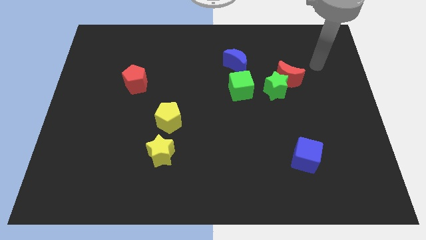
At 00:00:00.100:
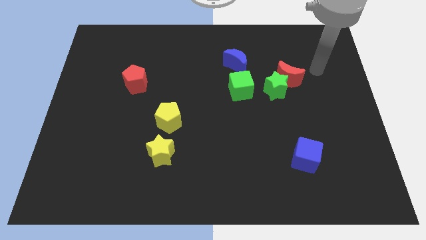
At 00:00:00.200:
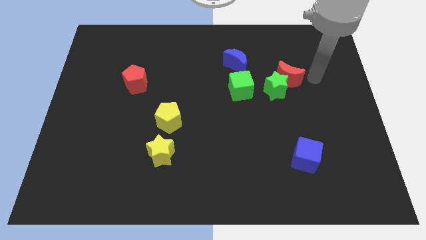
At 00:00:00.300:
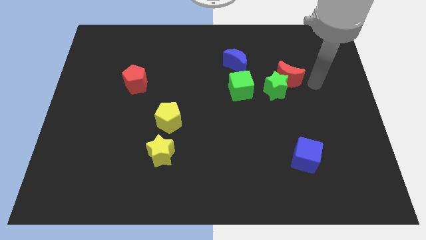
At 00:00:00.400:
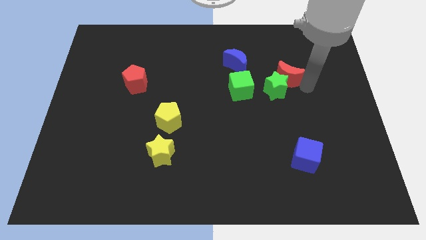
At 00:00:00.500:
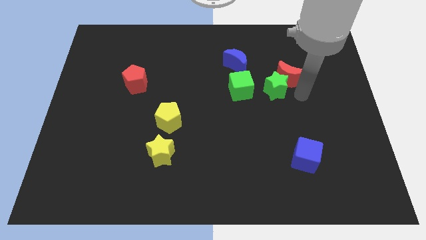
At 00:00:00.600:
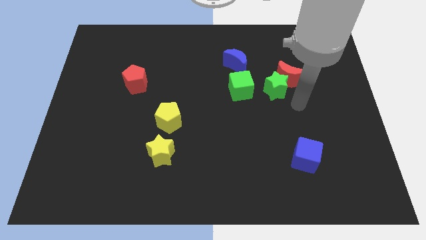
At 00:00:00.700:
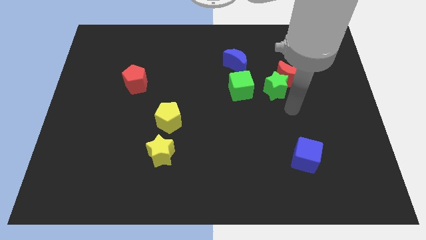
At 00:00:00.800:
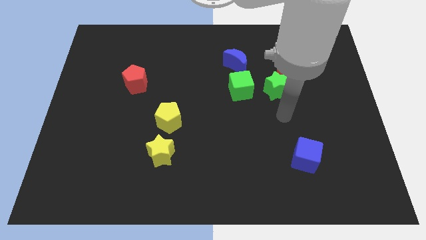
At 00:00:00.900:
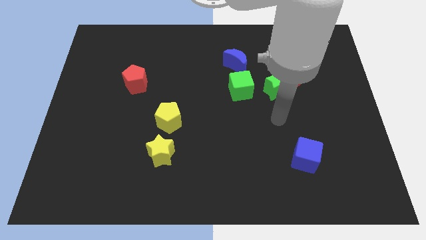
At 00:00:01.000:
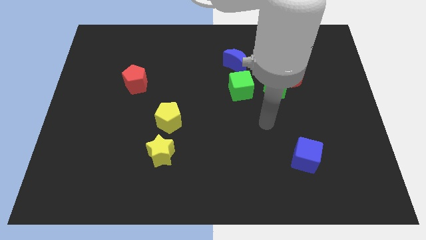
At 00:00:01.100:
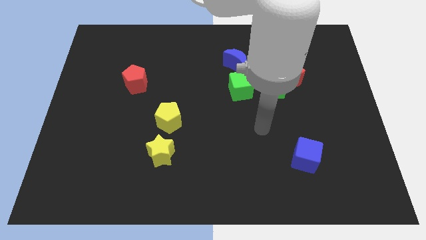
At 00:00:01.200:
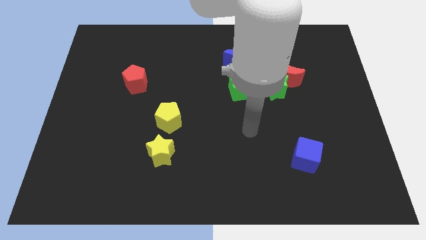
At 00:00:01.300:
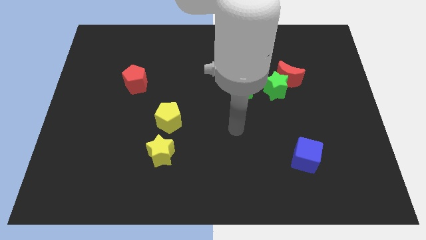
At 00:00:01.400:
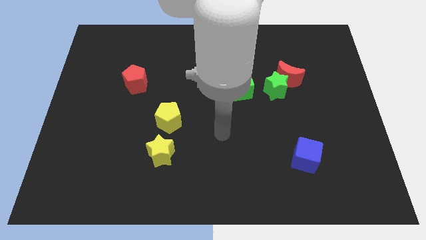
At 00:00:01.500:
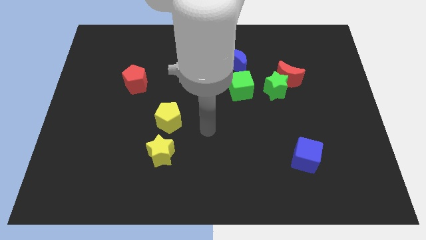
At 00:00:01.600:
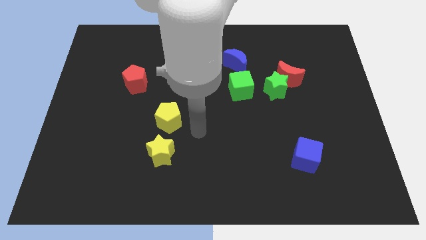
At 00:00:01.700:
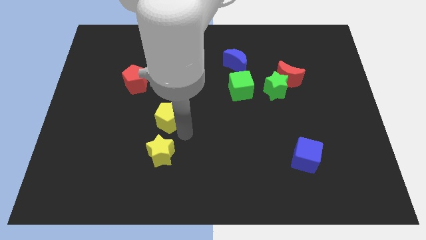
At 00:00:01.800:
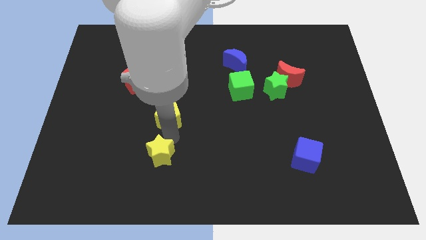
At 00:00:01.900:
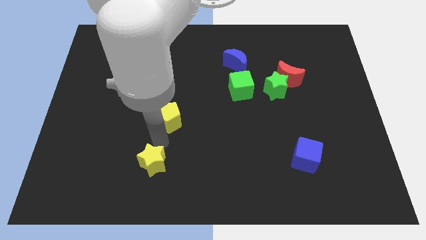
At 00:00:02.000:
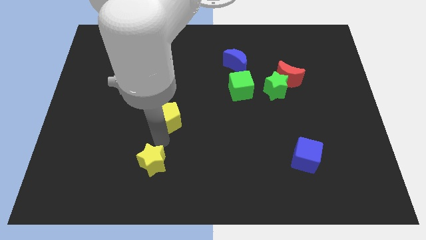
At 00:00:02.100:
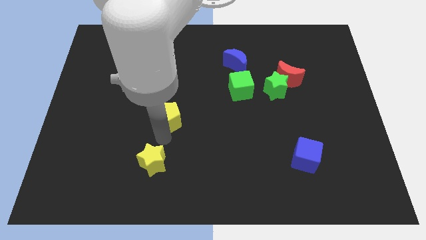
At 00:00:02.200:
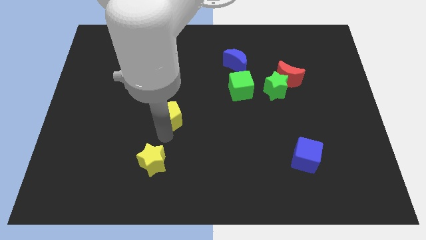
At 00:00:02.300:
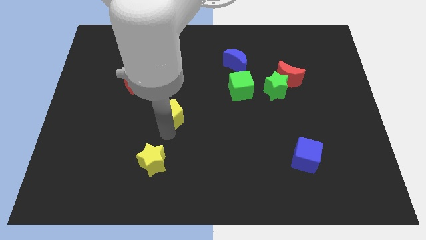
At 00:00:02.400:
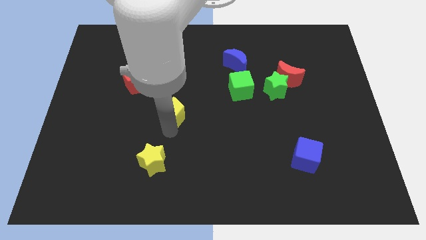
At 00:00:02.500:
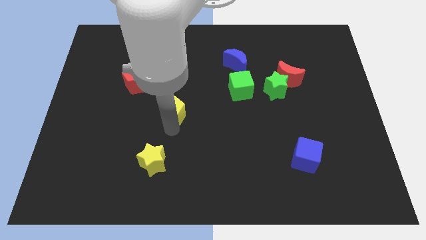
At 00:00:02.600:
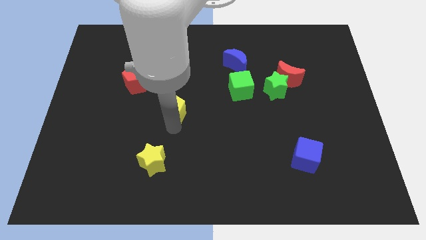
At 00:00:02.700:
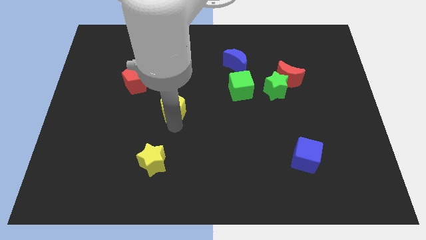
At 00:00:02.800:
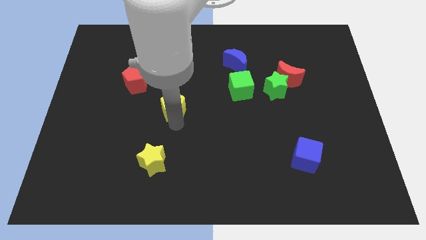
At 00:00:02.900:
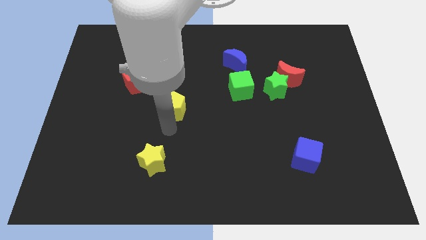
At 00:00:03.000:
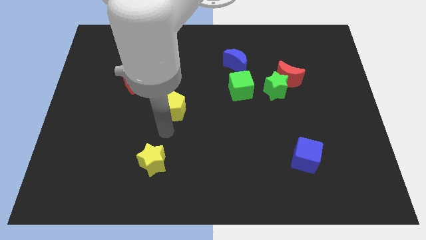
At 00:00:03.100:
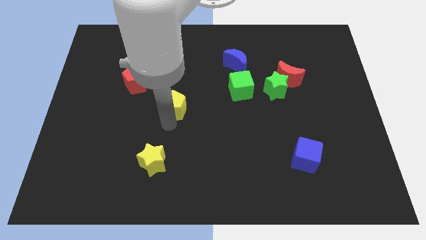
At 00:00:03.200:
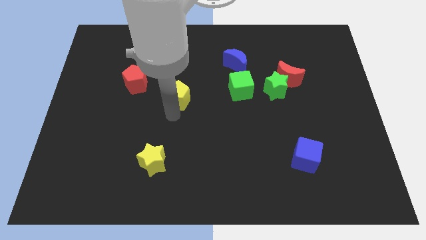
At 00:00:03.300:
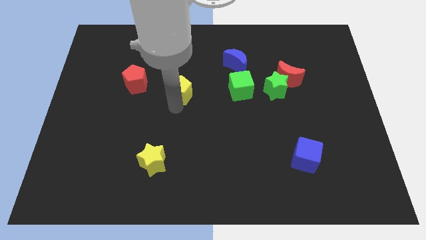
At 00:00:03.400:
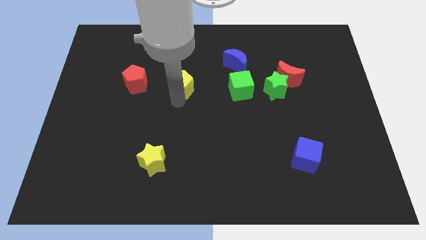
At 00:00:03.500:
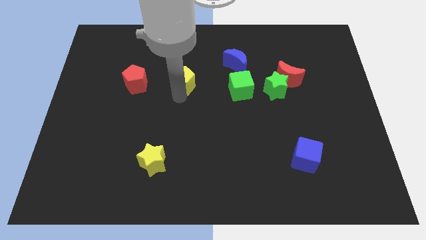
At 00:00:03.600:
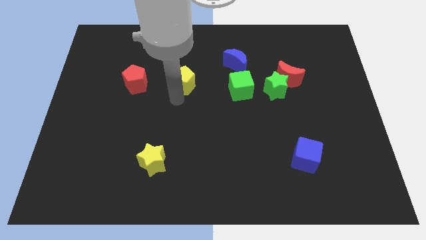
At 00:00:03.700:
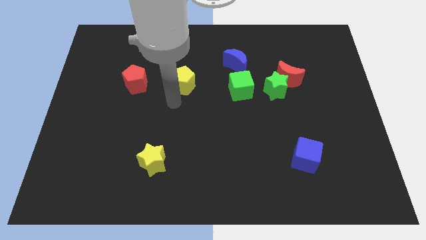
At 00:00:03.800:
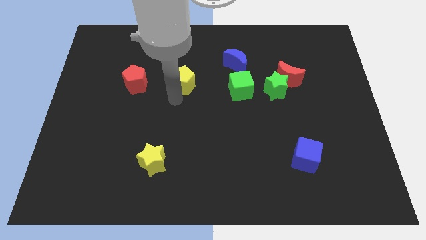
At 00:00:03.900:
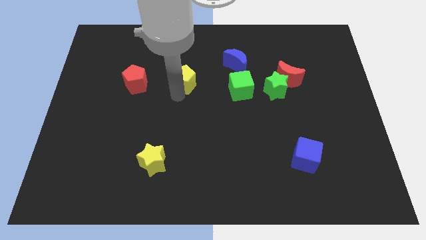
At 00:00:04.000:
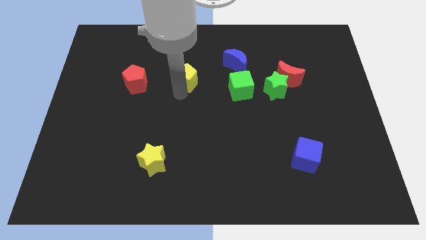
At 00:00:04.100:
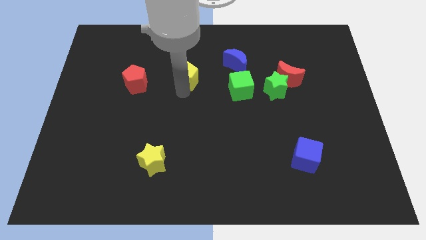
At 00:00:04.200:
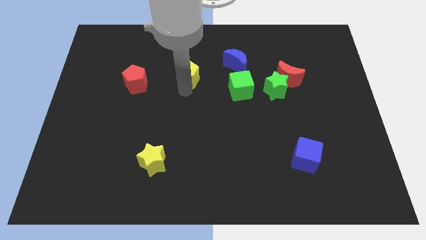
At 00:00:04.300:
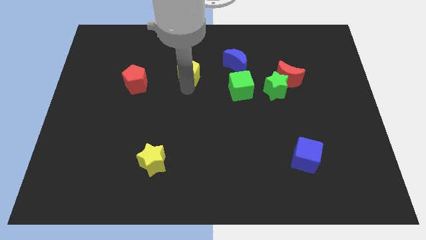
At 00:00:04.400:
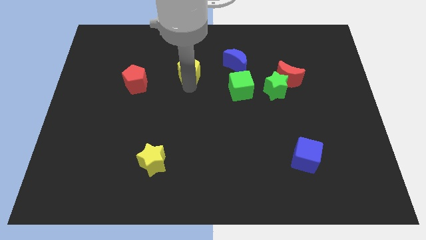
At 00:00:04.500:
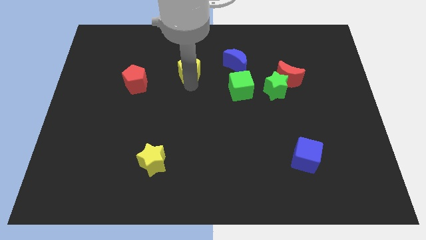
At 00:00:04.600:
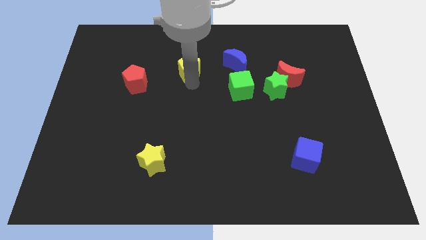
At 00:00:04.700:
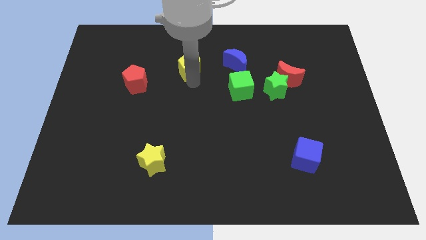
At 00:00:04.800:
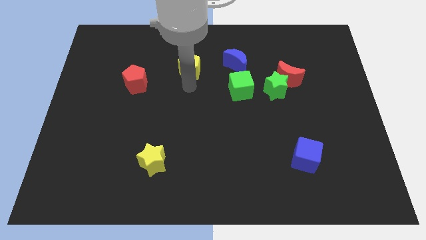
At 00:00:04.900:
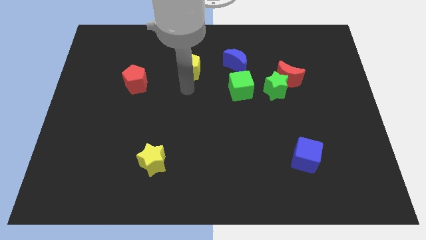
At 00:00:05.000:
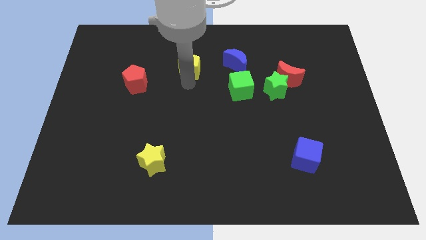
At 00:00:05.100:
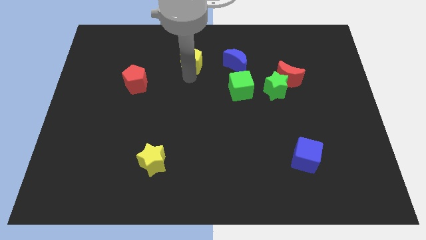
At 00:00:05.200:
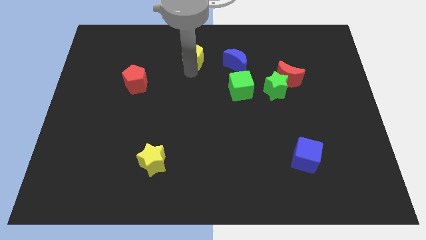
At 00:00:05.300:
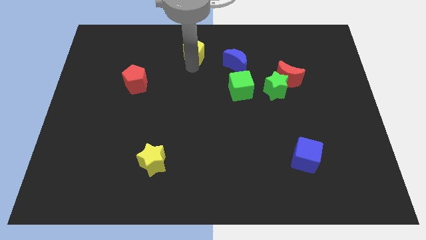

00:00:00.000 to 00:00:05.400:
put the yellow pentagon to the towards your base

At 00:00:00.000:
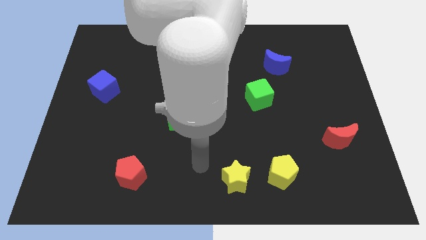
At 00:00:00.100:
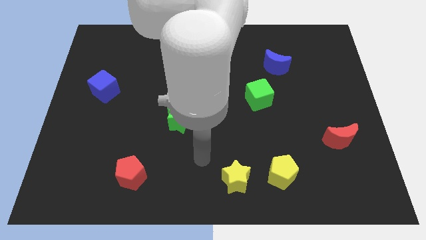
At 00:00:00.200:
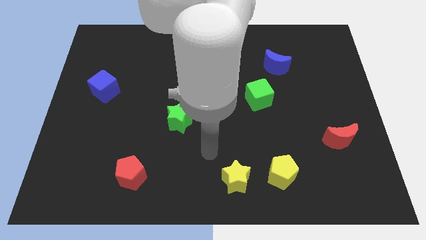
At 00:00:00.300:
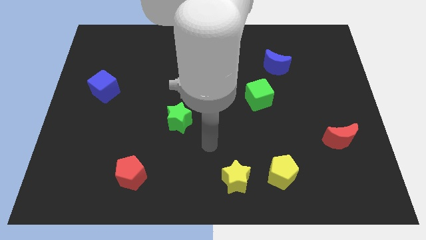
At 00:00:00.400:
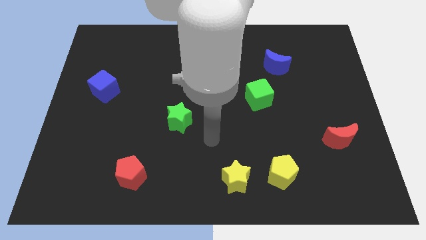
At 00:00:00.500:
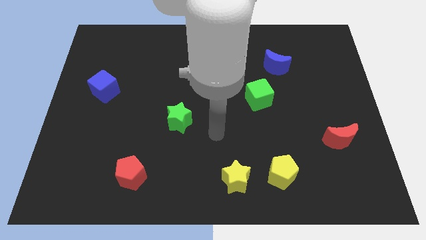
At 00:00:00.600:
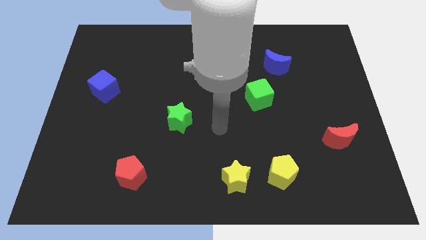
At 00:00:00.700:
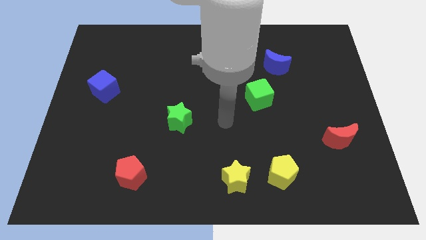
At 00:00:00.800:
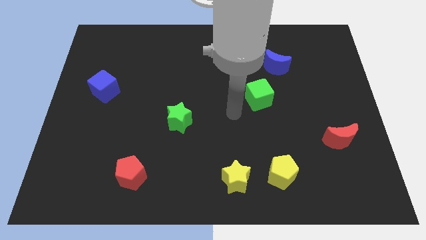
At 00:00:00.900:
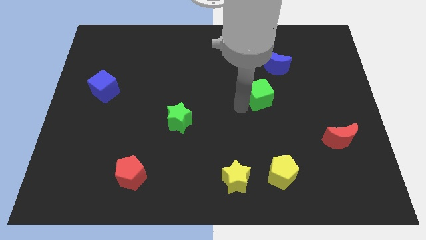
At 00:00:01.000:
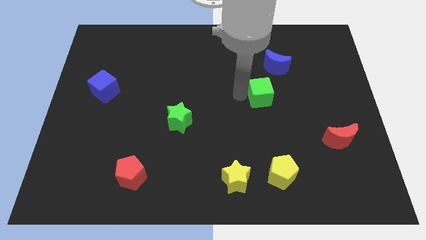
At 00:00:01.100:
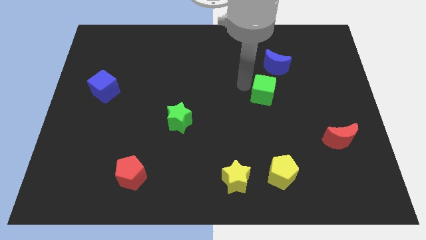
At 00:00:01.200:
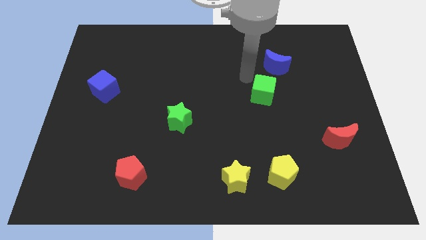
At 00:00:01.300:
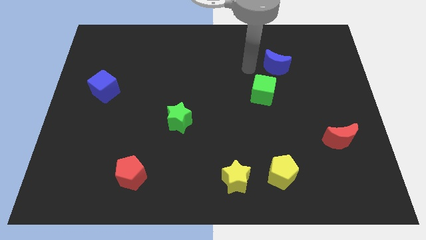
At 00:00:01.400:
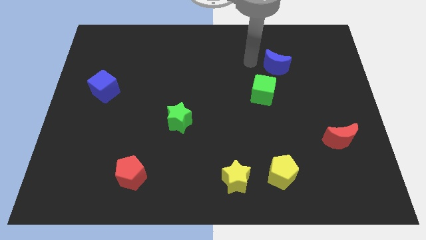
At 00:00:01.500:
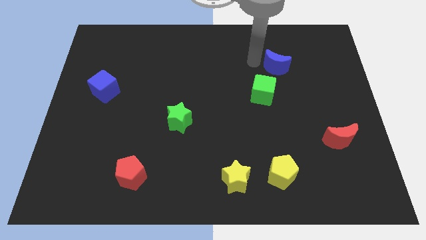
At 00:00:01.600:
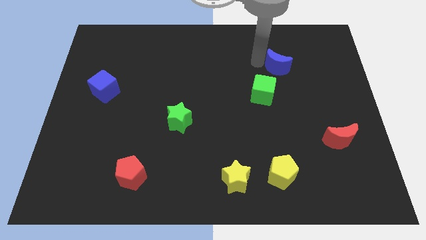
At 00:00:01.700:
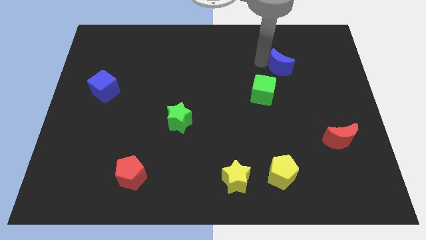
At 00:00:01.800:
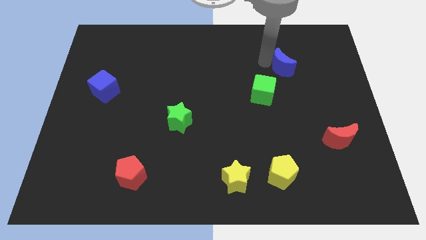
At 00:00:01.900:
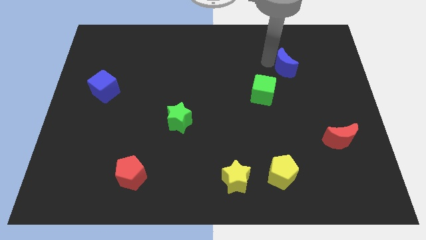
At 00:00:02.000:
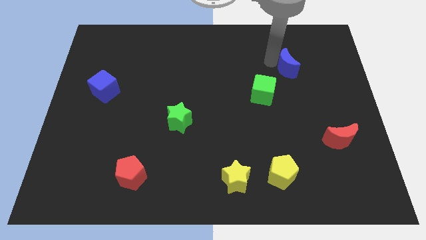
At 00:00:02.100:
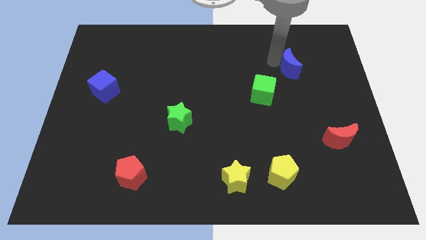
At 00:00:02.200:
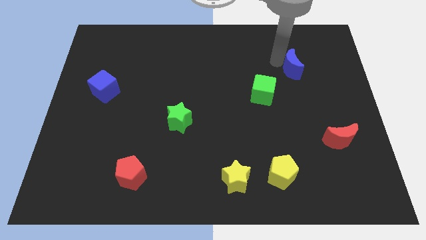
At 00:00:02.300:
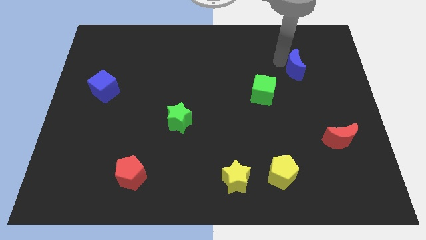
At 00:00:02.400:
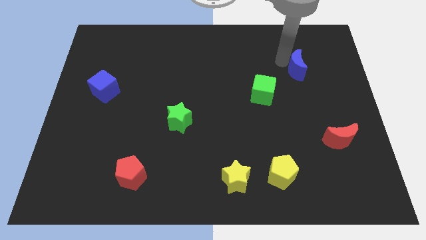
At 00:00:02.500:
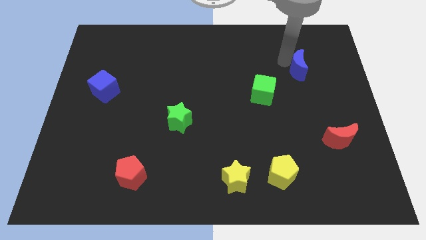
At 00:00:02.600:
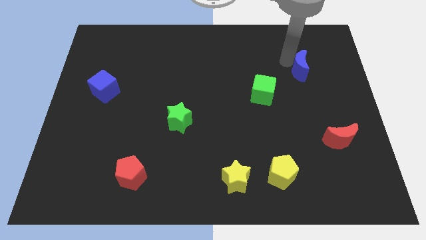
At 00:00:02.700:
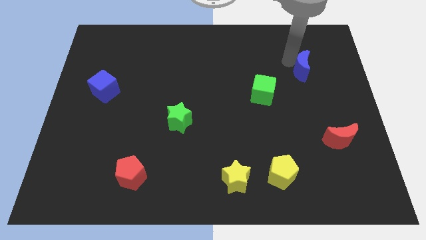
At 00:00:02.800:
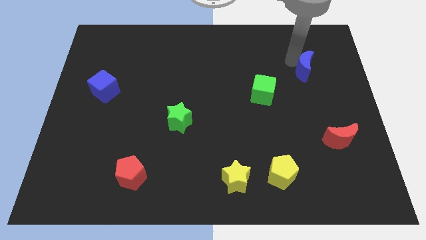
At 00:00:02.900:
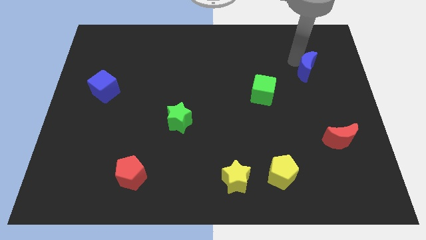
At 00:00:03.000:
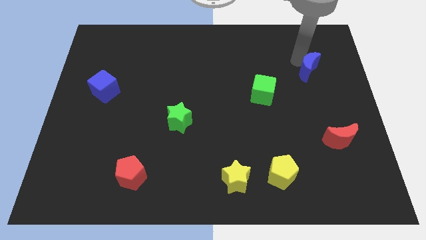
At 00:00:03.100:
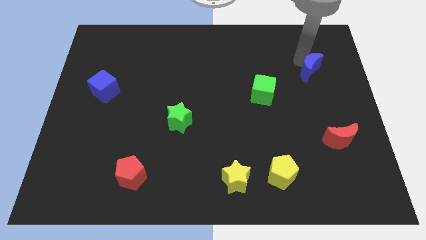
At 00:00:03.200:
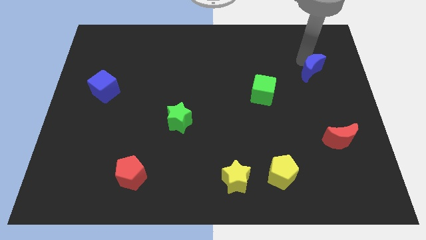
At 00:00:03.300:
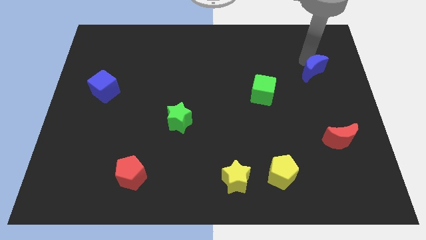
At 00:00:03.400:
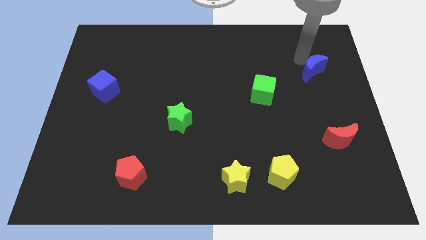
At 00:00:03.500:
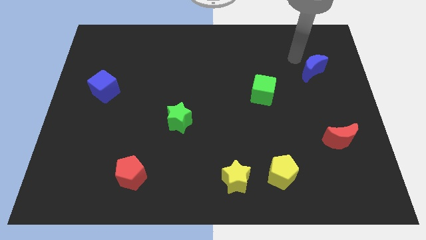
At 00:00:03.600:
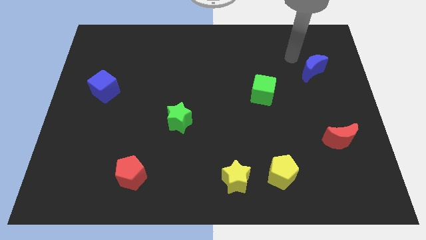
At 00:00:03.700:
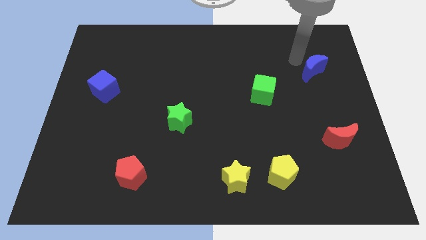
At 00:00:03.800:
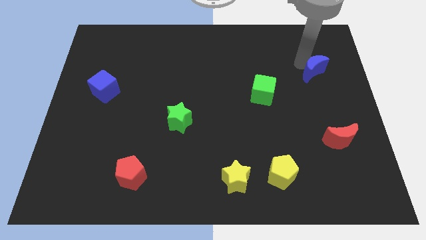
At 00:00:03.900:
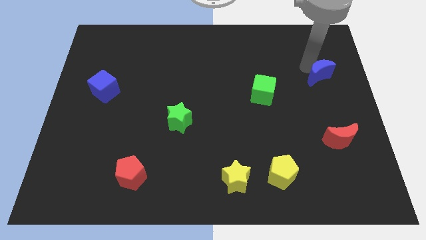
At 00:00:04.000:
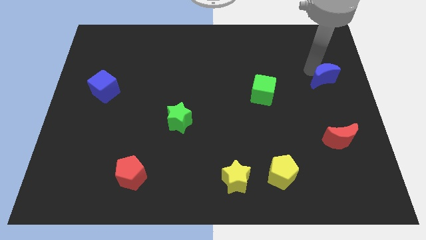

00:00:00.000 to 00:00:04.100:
put the blue moon to the right side of the board
